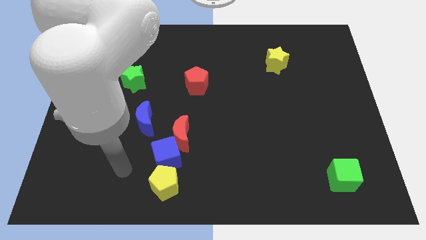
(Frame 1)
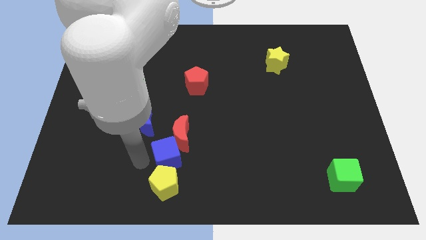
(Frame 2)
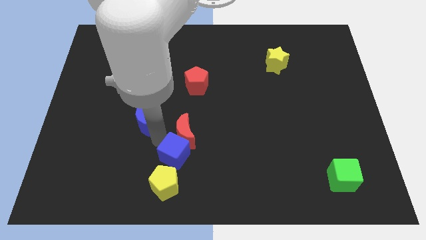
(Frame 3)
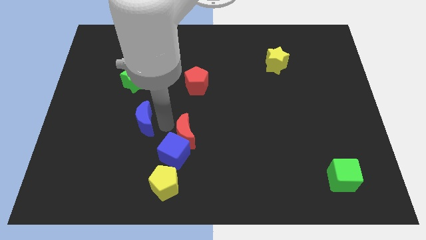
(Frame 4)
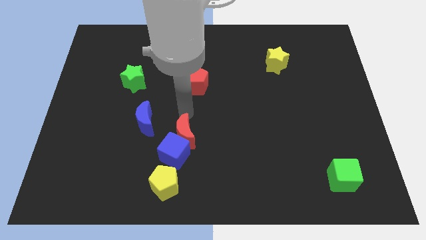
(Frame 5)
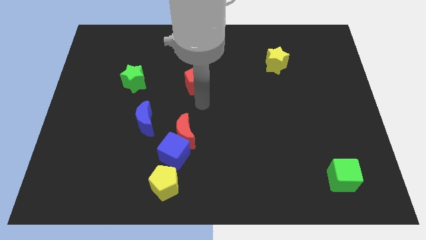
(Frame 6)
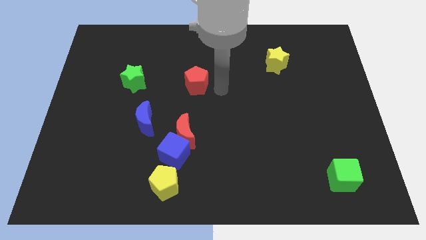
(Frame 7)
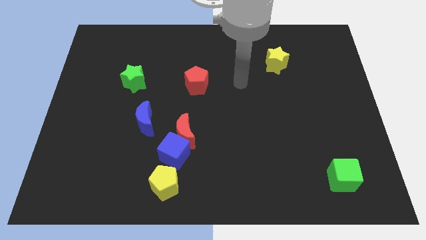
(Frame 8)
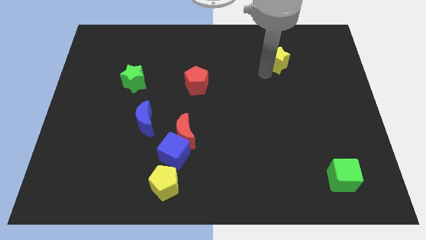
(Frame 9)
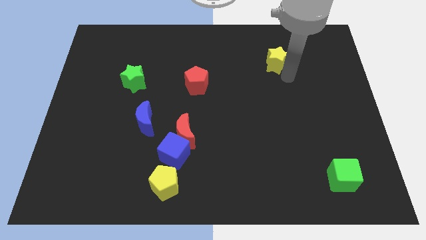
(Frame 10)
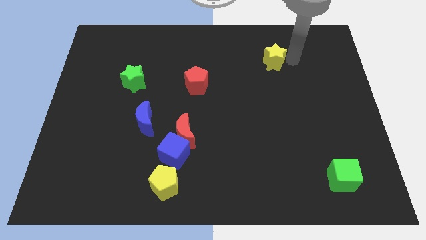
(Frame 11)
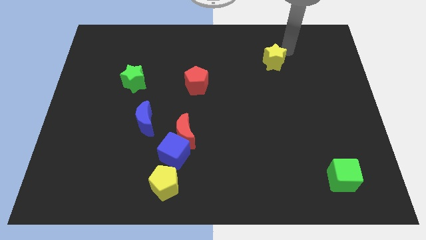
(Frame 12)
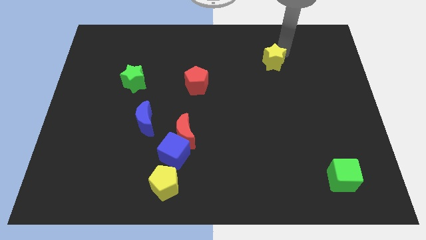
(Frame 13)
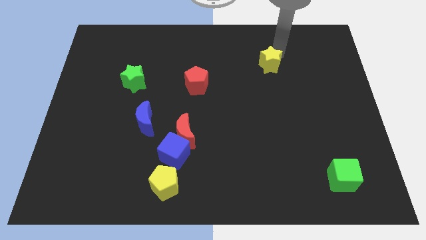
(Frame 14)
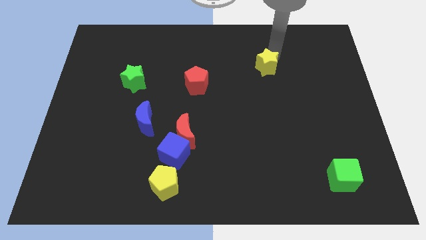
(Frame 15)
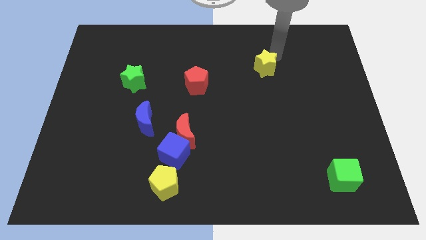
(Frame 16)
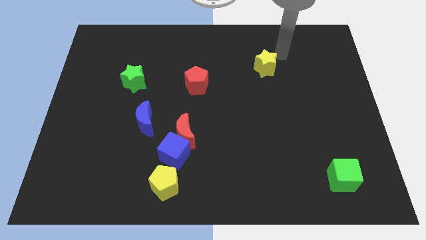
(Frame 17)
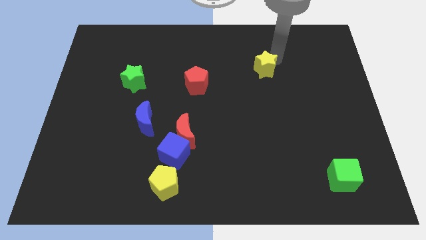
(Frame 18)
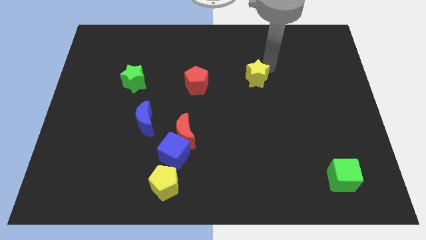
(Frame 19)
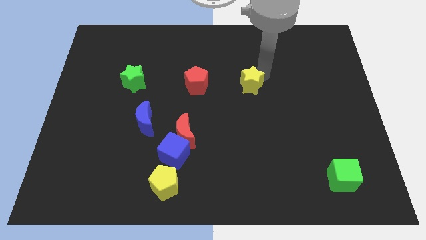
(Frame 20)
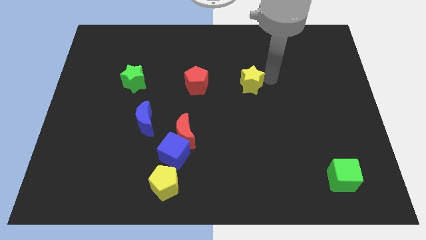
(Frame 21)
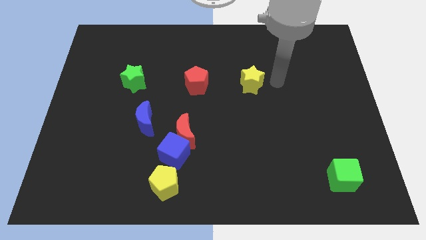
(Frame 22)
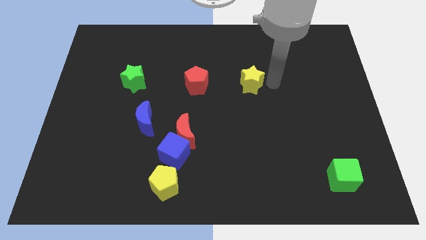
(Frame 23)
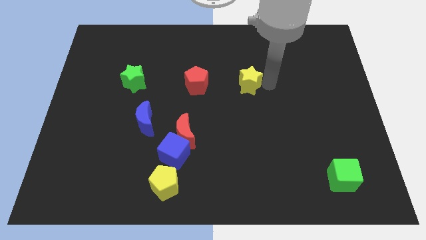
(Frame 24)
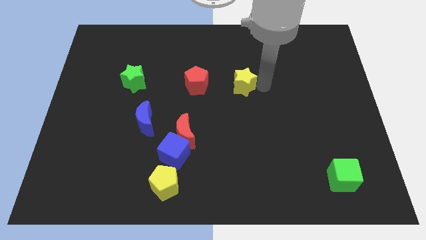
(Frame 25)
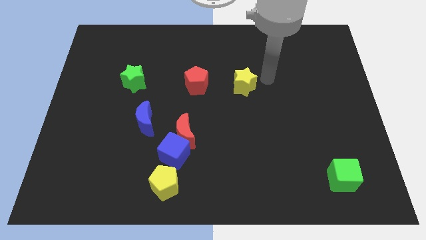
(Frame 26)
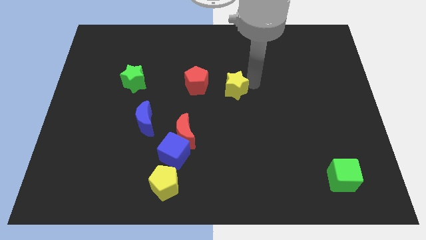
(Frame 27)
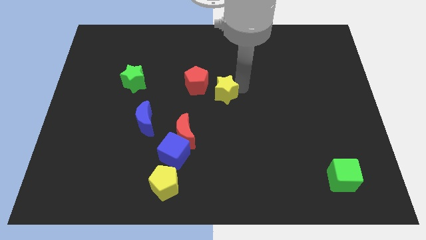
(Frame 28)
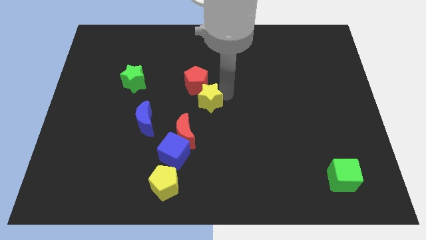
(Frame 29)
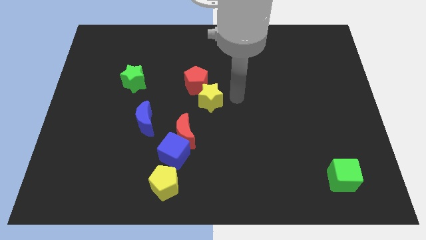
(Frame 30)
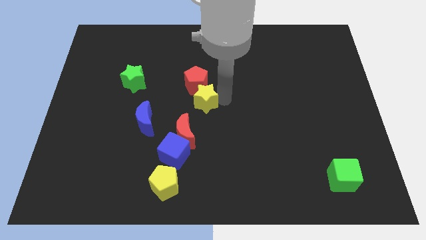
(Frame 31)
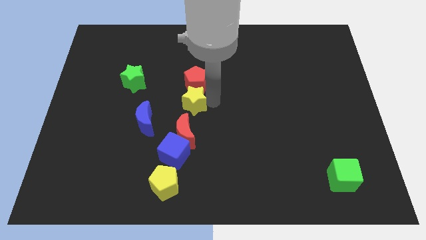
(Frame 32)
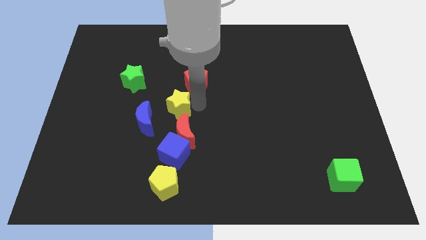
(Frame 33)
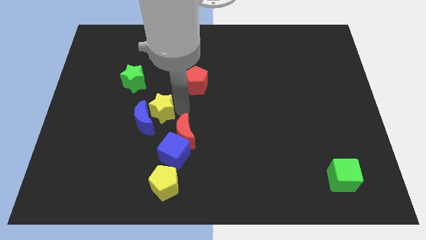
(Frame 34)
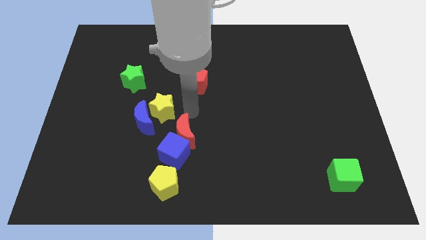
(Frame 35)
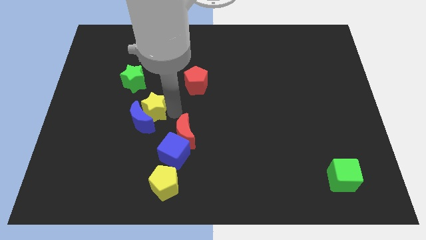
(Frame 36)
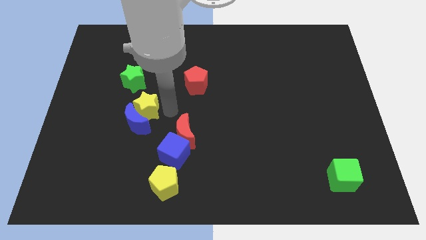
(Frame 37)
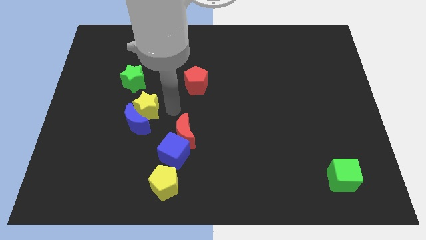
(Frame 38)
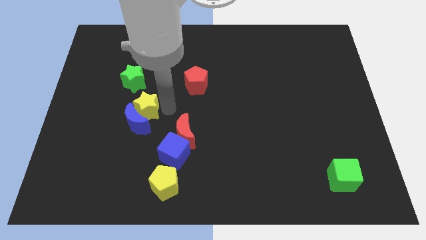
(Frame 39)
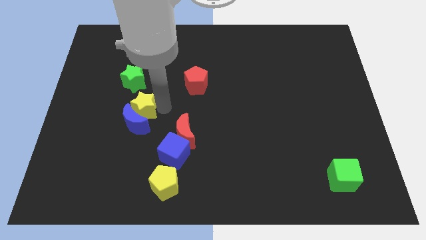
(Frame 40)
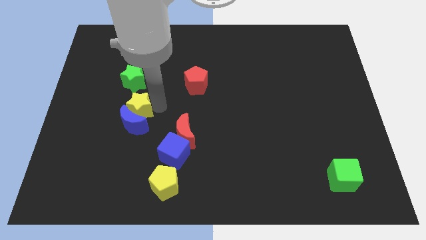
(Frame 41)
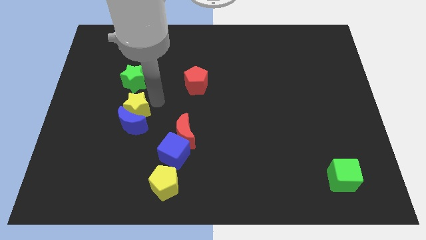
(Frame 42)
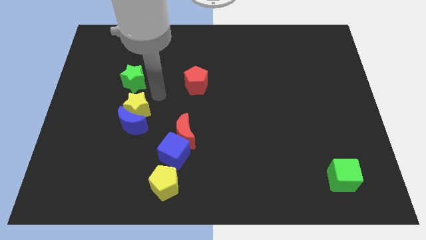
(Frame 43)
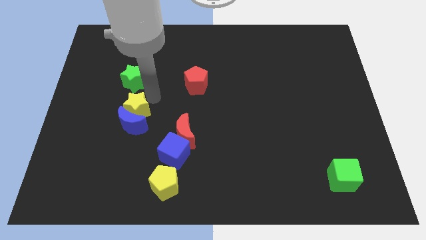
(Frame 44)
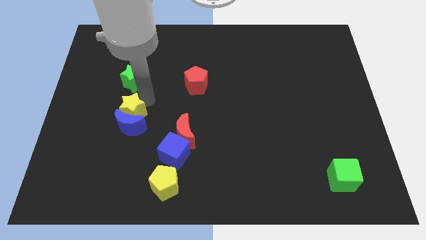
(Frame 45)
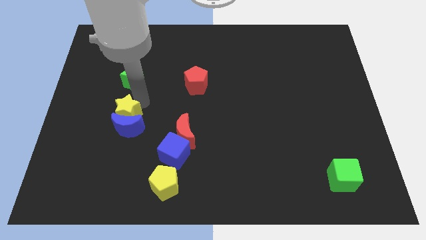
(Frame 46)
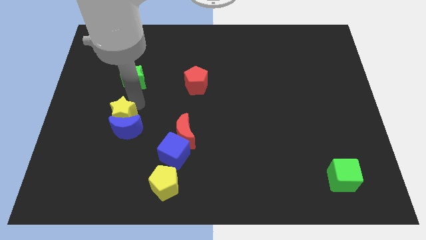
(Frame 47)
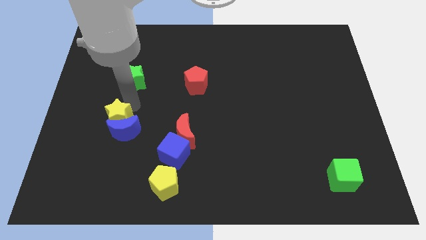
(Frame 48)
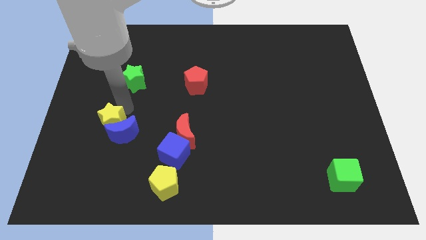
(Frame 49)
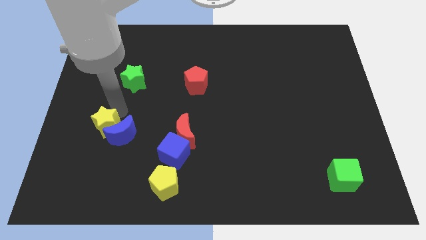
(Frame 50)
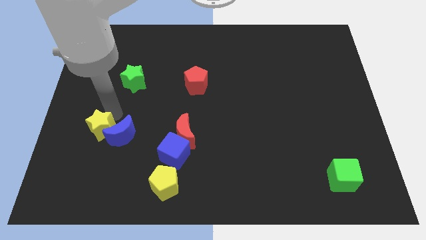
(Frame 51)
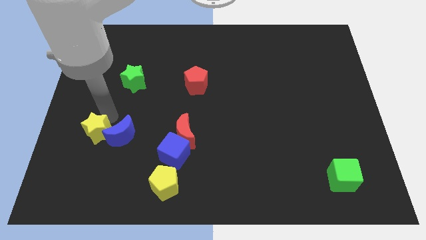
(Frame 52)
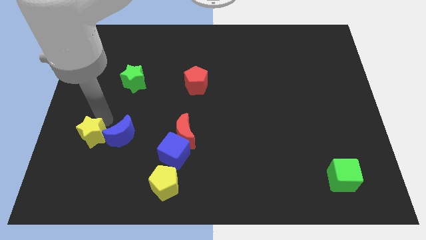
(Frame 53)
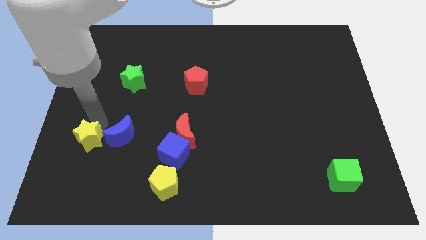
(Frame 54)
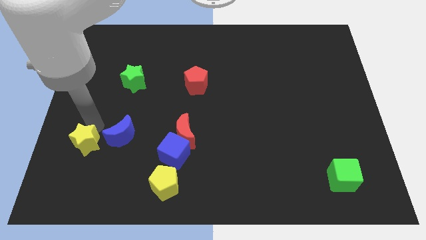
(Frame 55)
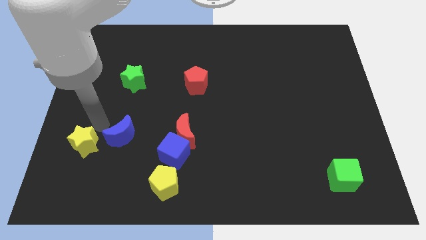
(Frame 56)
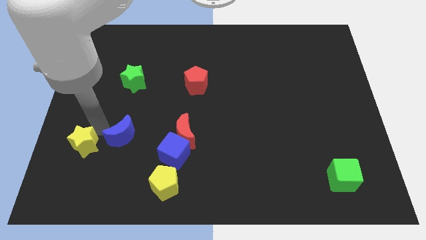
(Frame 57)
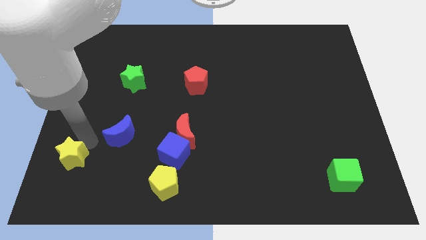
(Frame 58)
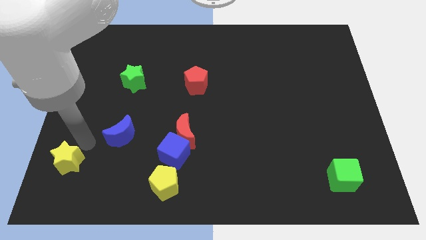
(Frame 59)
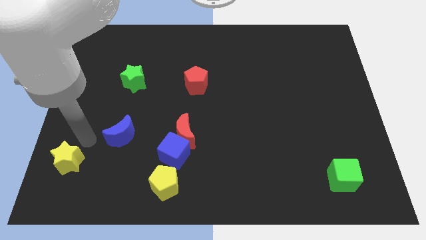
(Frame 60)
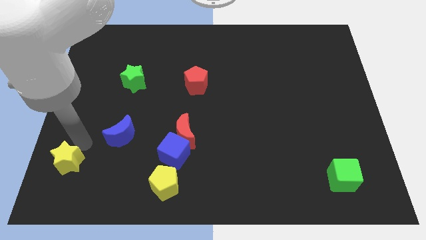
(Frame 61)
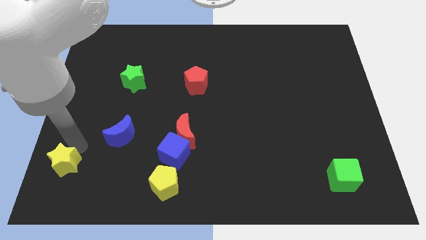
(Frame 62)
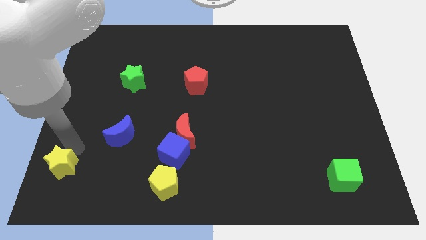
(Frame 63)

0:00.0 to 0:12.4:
move the yellow star to the bottom left

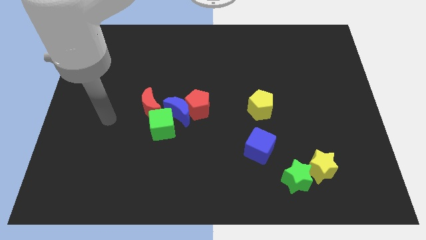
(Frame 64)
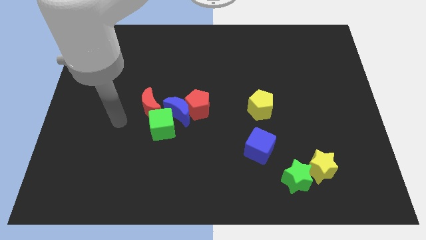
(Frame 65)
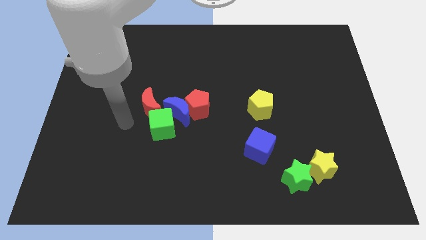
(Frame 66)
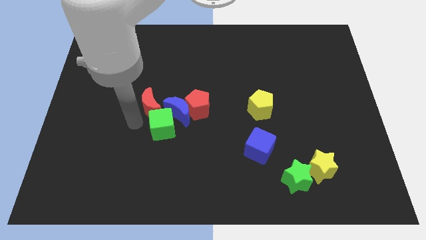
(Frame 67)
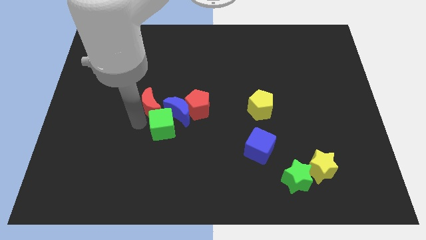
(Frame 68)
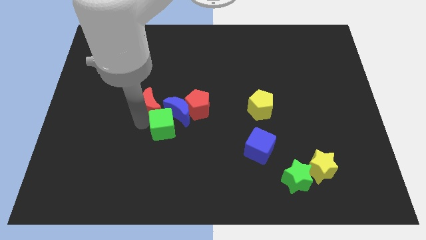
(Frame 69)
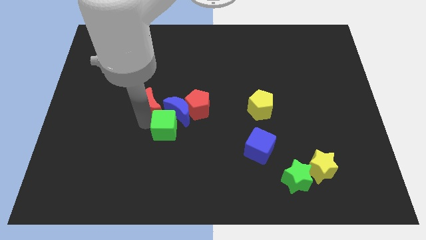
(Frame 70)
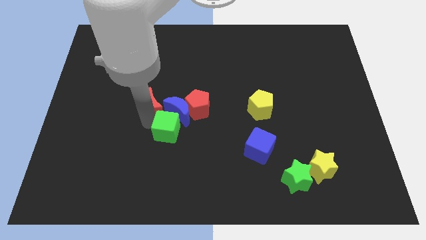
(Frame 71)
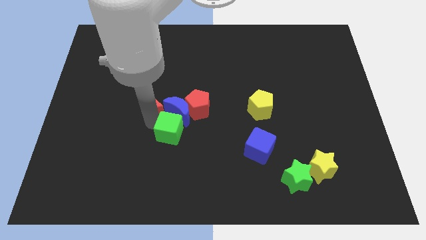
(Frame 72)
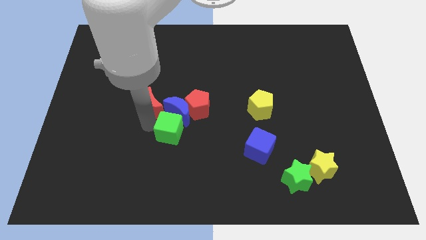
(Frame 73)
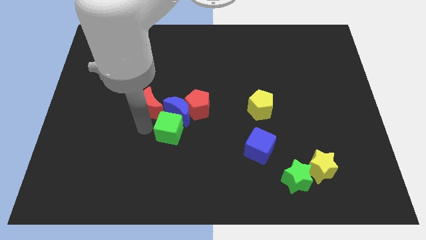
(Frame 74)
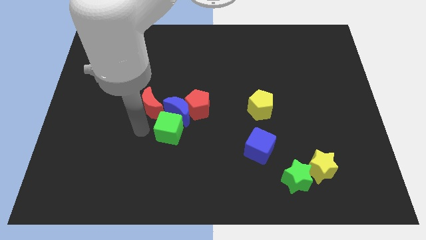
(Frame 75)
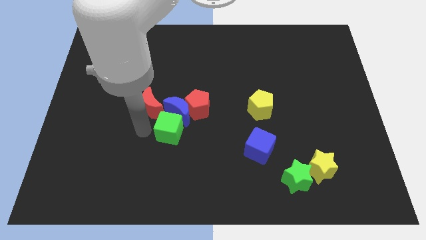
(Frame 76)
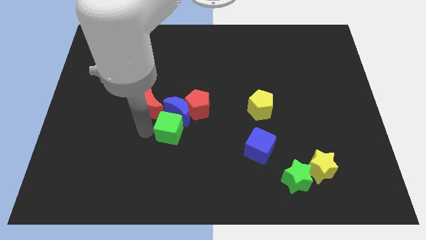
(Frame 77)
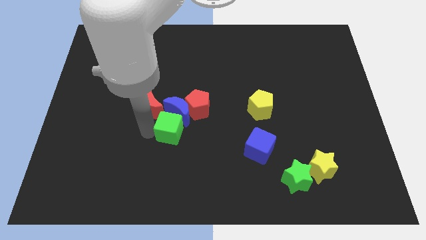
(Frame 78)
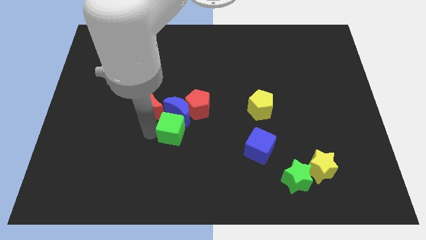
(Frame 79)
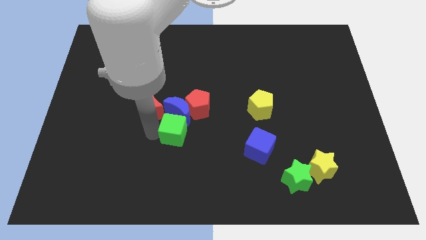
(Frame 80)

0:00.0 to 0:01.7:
slide the green cube to the middle
